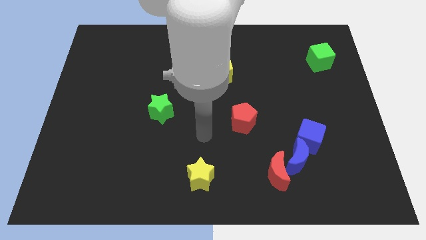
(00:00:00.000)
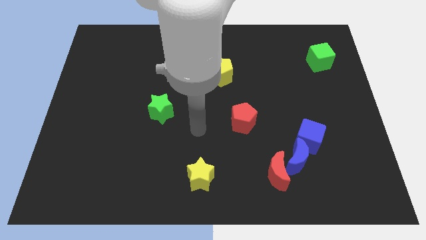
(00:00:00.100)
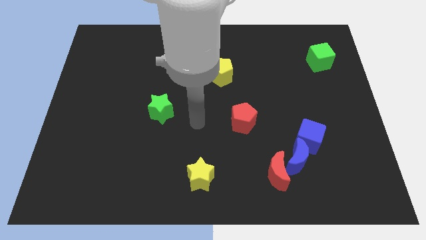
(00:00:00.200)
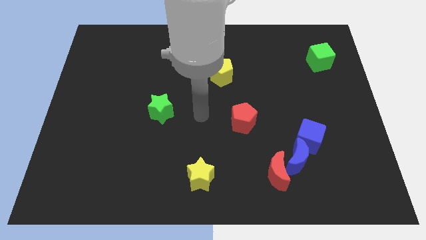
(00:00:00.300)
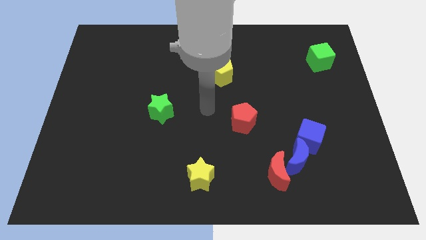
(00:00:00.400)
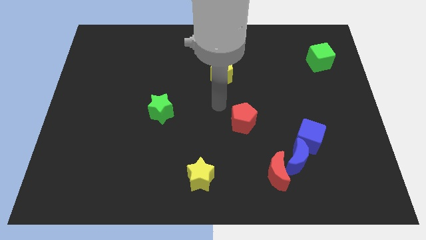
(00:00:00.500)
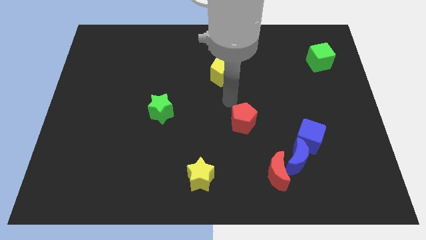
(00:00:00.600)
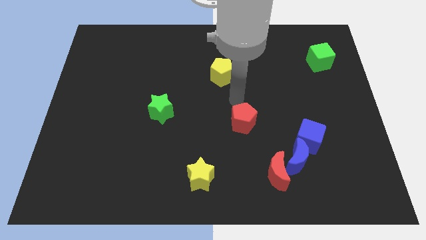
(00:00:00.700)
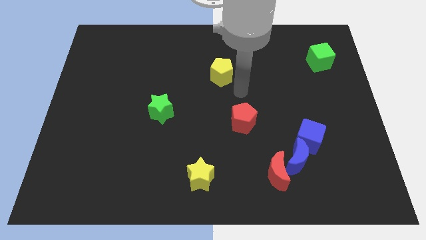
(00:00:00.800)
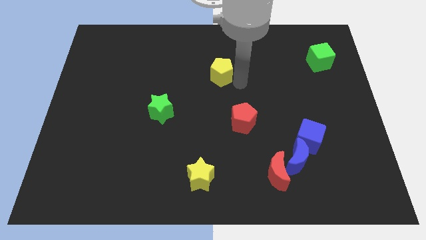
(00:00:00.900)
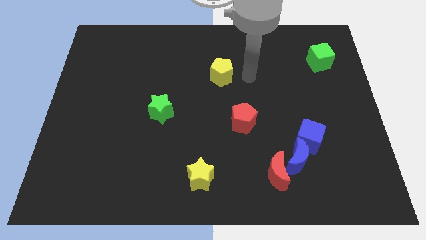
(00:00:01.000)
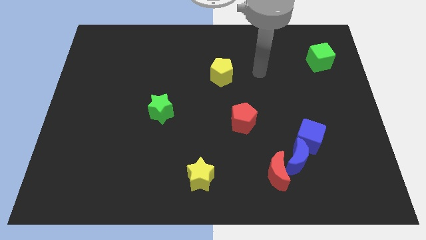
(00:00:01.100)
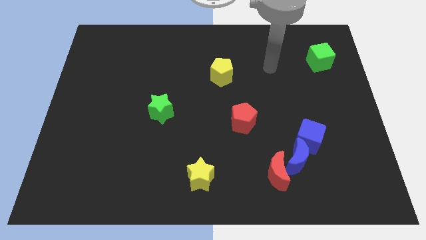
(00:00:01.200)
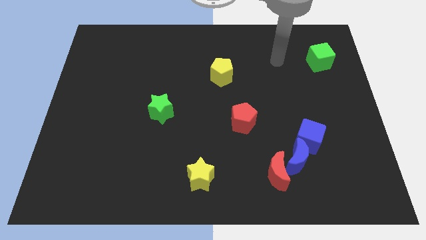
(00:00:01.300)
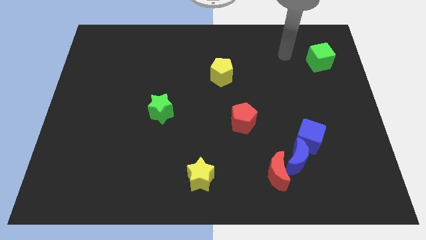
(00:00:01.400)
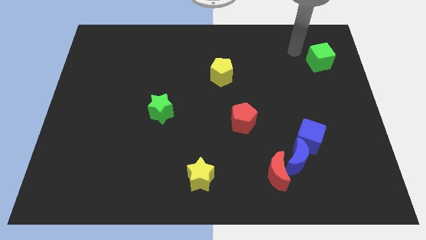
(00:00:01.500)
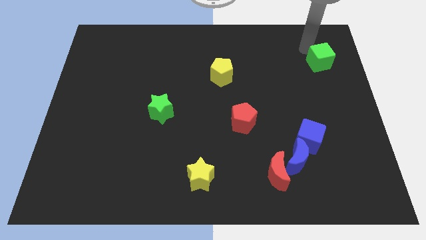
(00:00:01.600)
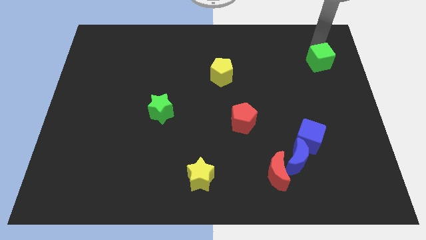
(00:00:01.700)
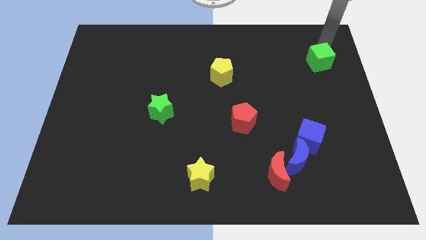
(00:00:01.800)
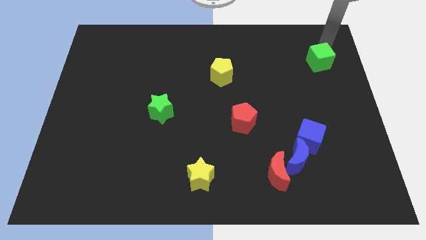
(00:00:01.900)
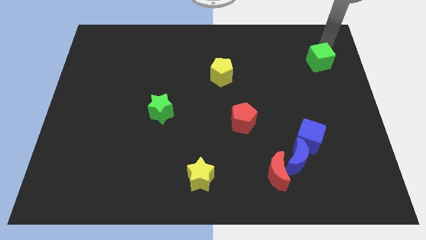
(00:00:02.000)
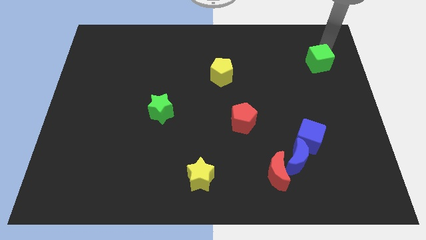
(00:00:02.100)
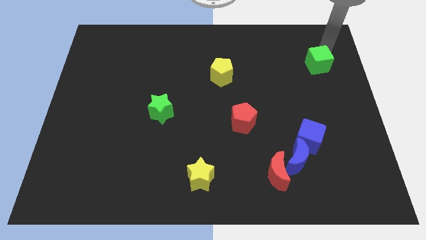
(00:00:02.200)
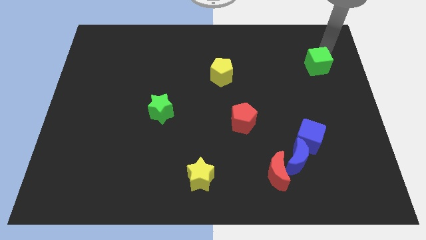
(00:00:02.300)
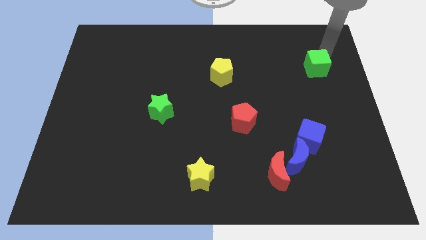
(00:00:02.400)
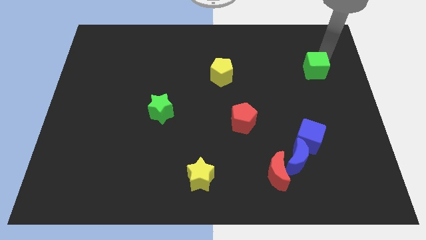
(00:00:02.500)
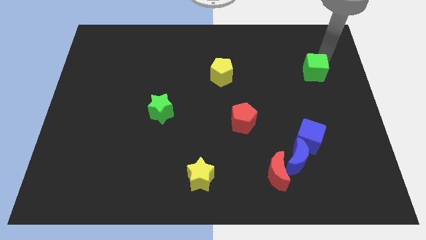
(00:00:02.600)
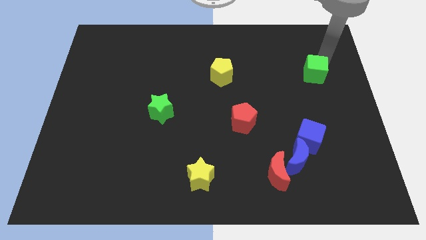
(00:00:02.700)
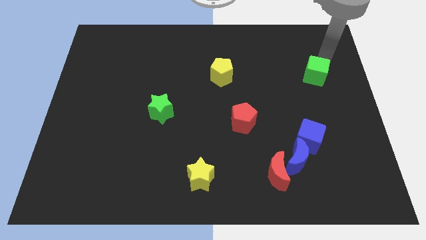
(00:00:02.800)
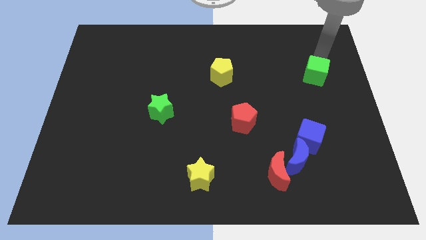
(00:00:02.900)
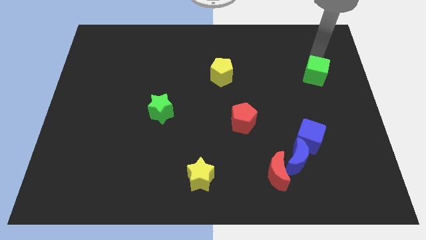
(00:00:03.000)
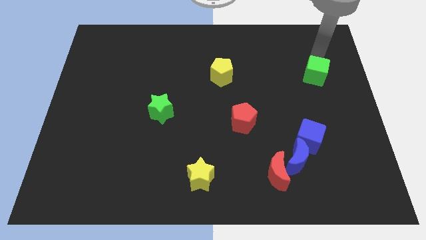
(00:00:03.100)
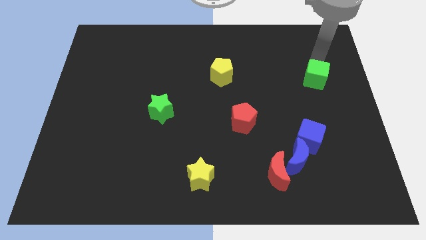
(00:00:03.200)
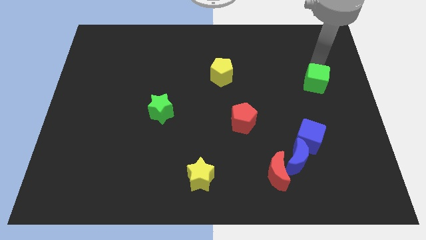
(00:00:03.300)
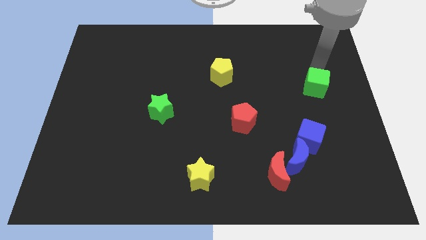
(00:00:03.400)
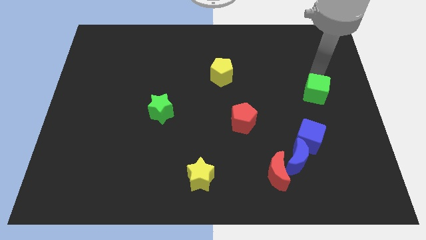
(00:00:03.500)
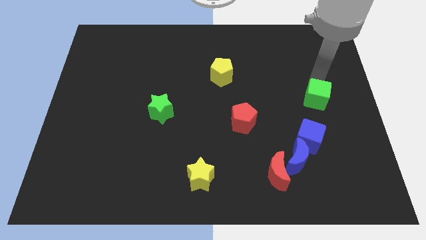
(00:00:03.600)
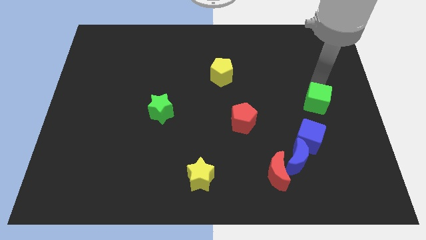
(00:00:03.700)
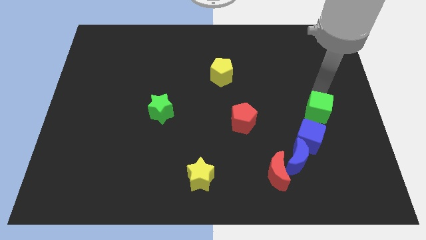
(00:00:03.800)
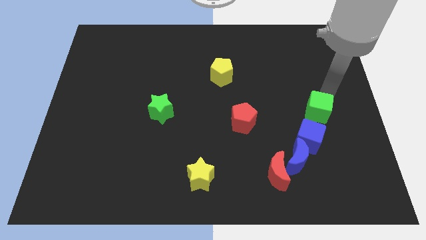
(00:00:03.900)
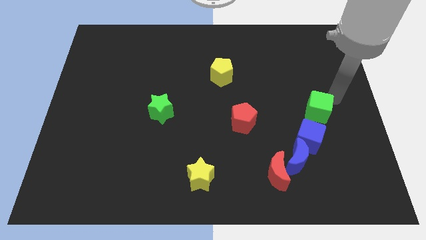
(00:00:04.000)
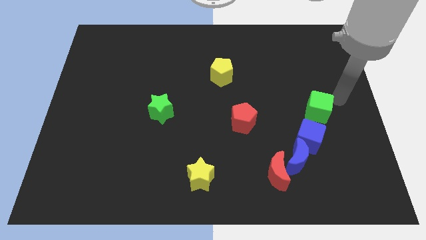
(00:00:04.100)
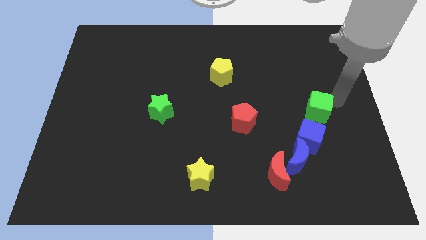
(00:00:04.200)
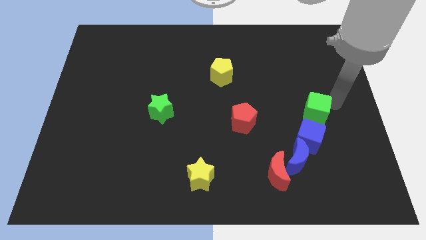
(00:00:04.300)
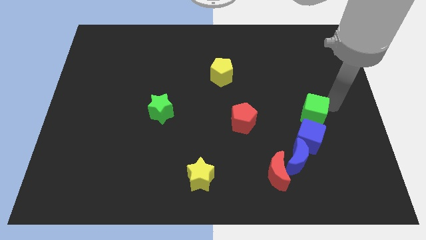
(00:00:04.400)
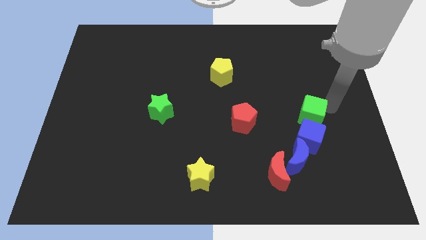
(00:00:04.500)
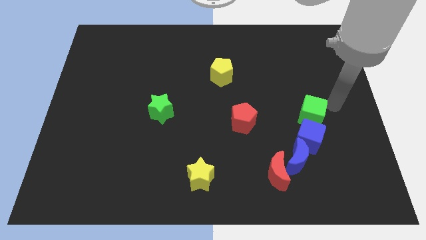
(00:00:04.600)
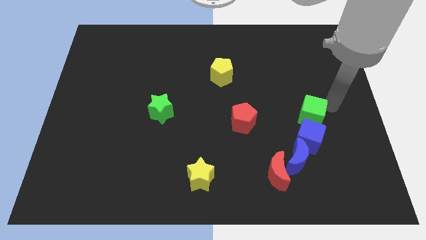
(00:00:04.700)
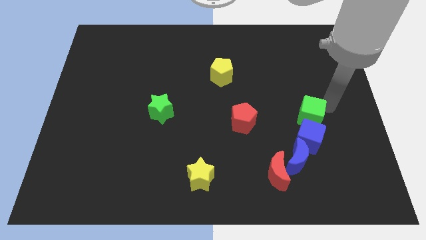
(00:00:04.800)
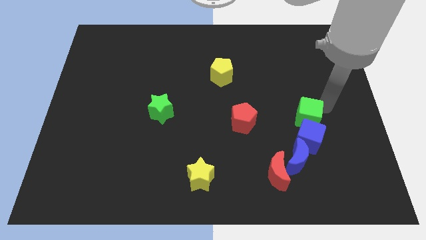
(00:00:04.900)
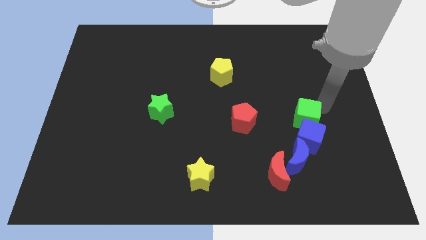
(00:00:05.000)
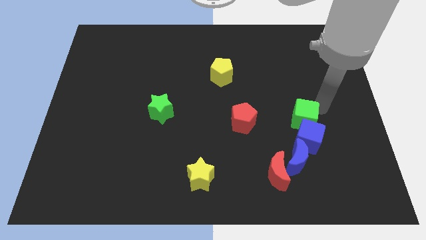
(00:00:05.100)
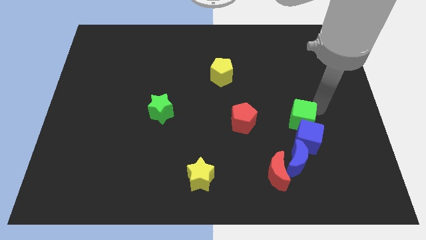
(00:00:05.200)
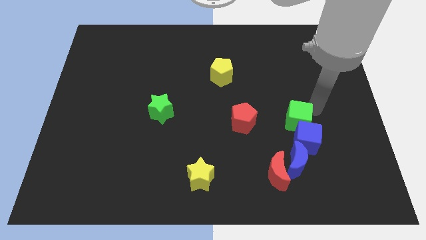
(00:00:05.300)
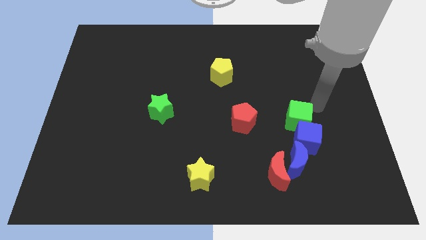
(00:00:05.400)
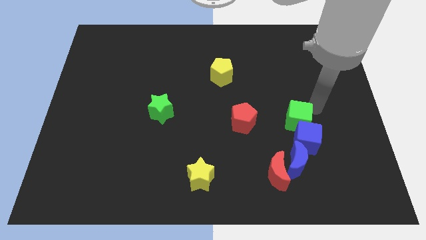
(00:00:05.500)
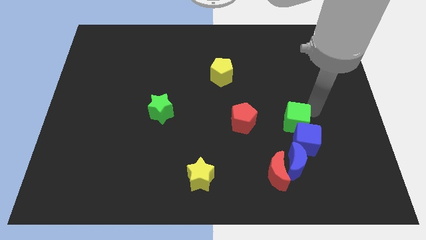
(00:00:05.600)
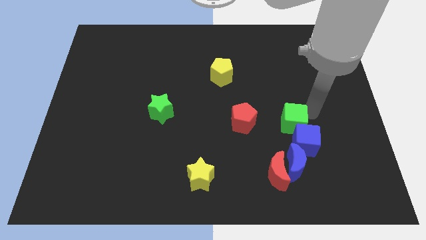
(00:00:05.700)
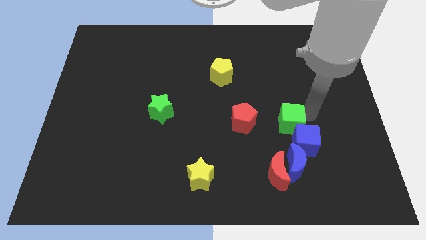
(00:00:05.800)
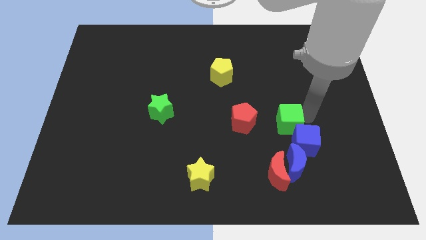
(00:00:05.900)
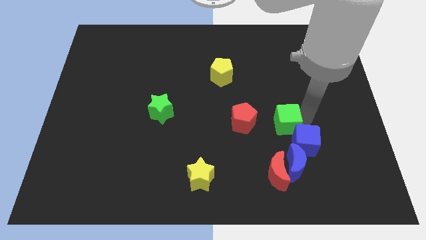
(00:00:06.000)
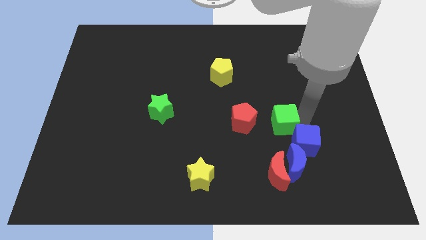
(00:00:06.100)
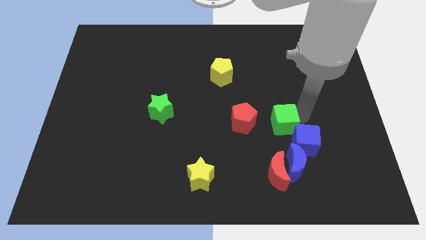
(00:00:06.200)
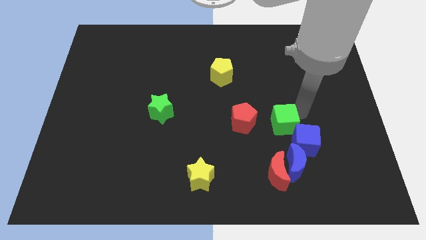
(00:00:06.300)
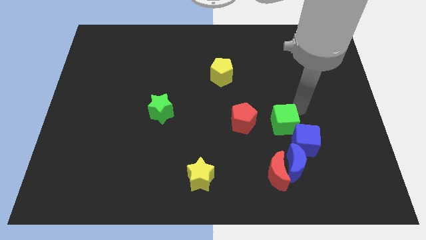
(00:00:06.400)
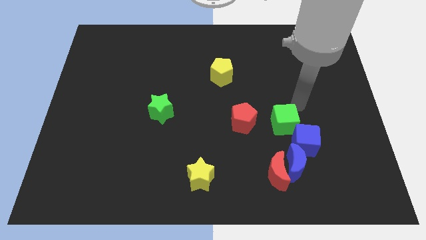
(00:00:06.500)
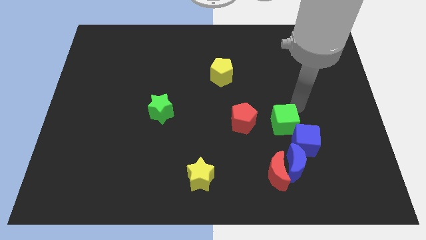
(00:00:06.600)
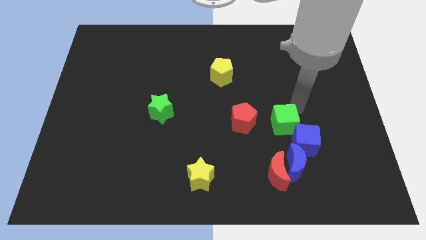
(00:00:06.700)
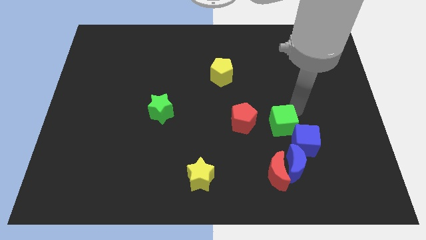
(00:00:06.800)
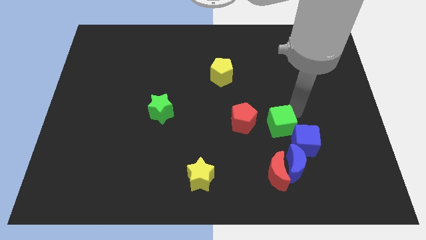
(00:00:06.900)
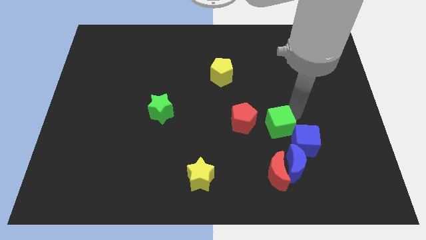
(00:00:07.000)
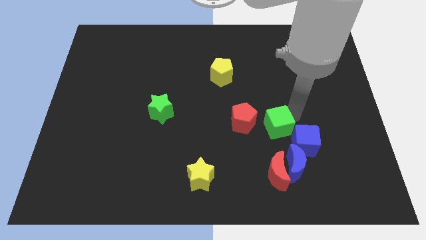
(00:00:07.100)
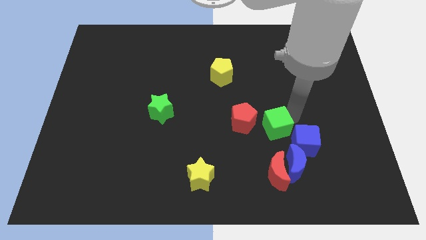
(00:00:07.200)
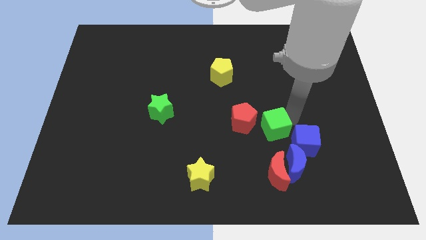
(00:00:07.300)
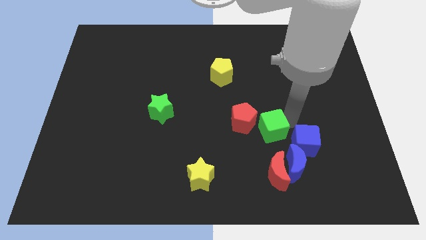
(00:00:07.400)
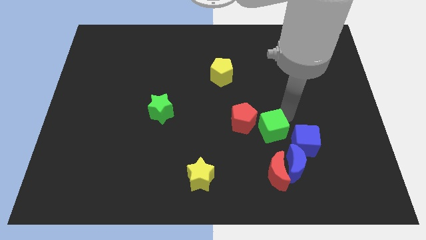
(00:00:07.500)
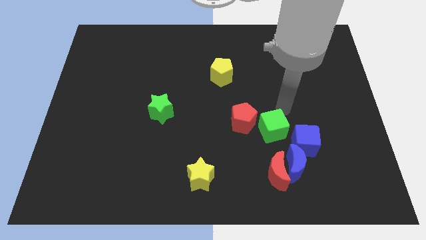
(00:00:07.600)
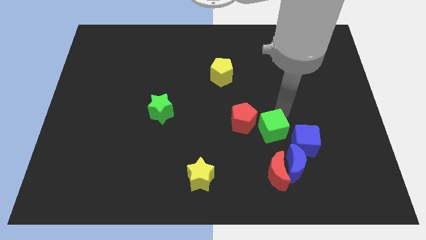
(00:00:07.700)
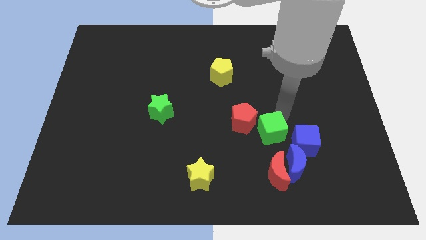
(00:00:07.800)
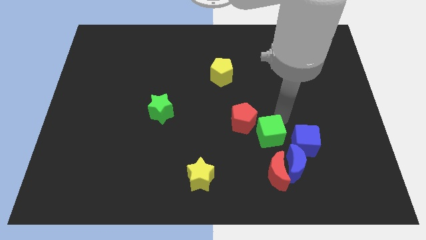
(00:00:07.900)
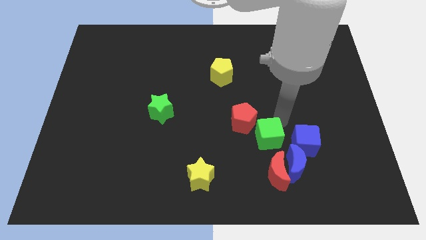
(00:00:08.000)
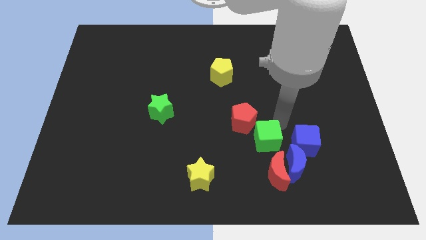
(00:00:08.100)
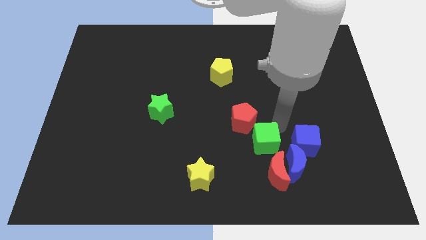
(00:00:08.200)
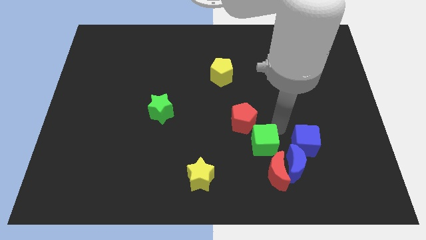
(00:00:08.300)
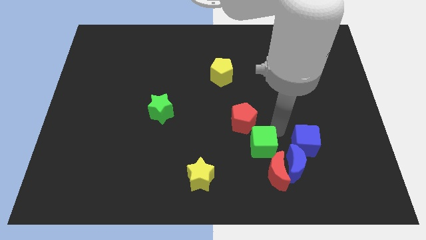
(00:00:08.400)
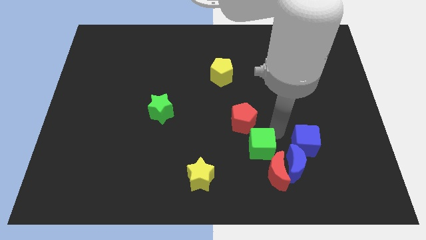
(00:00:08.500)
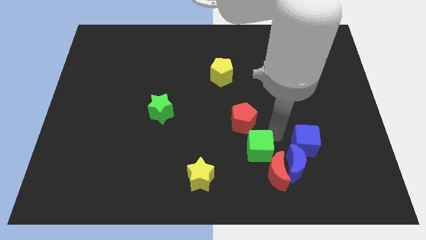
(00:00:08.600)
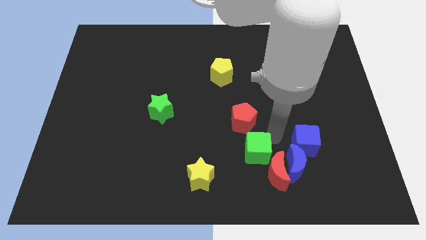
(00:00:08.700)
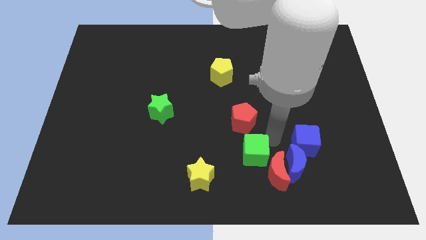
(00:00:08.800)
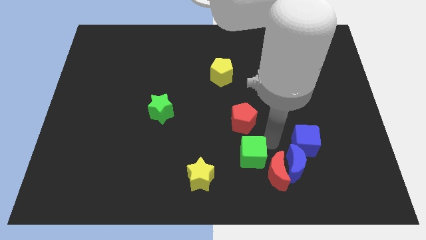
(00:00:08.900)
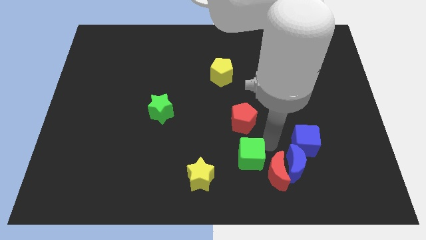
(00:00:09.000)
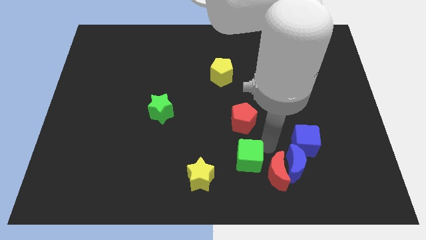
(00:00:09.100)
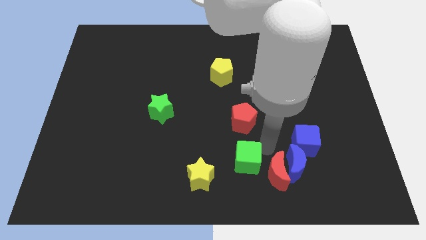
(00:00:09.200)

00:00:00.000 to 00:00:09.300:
push the green cube to the bottom side
